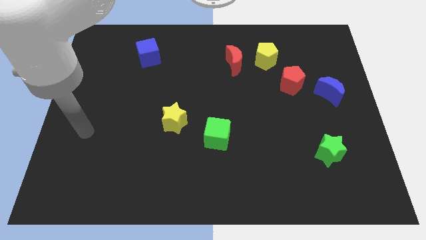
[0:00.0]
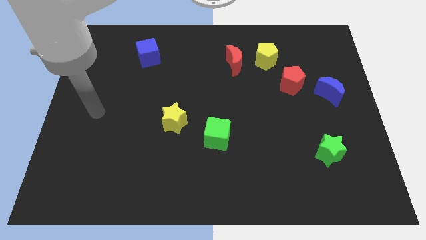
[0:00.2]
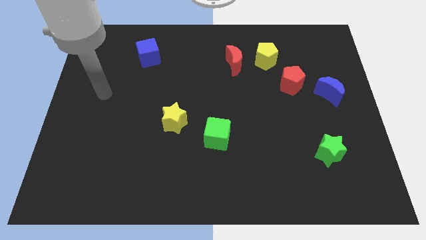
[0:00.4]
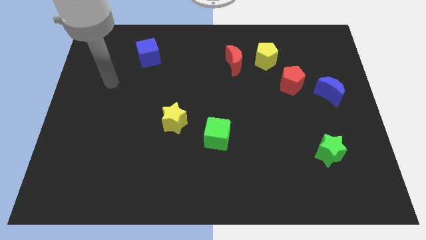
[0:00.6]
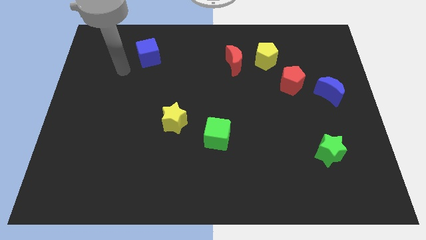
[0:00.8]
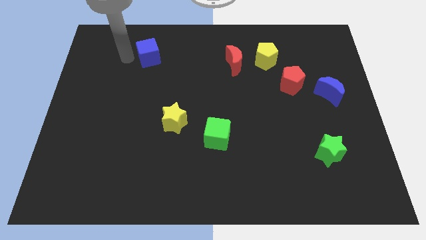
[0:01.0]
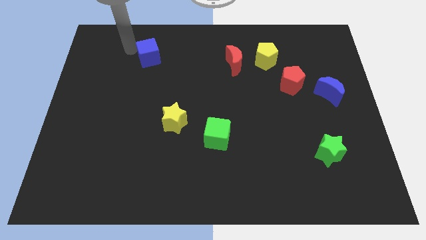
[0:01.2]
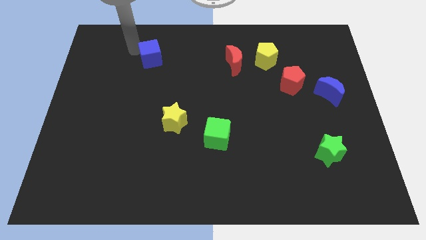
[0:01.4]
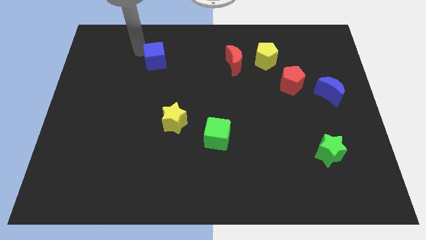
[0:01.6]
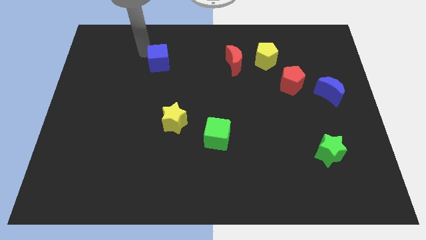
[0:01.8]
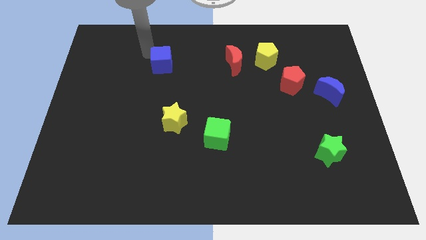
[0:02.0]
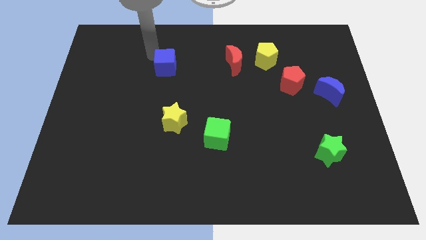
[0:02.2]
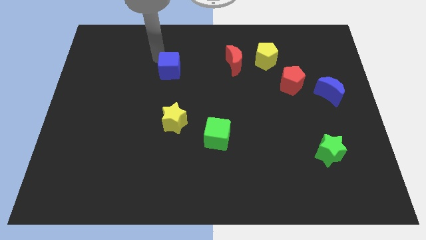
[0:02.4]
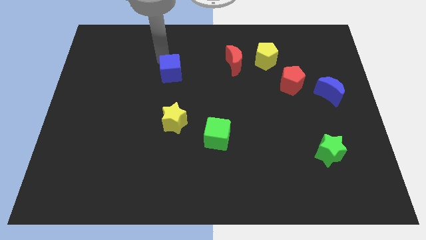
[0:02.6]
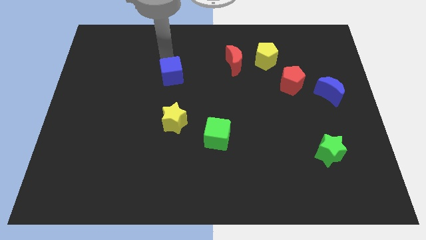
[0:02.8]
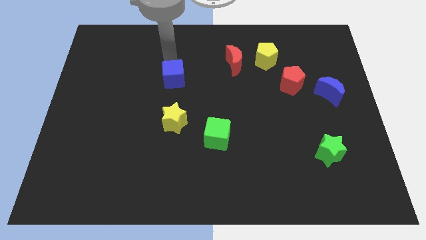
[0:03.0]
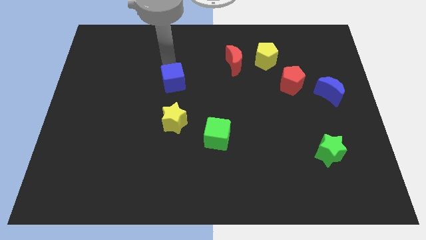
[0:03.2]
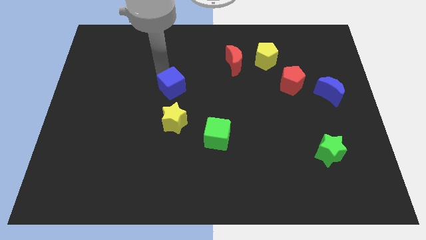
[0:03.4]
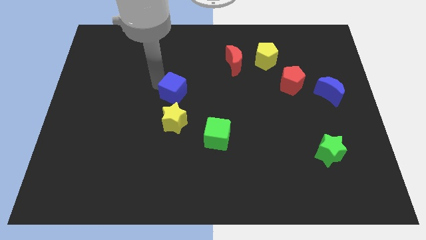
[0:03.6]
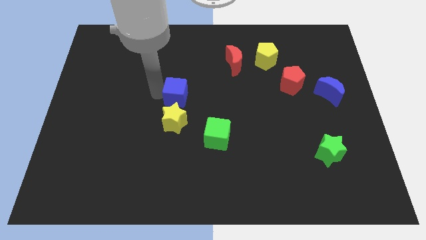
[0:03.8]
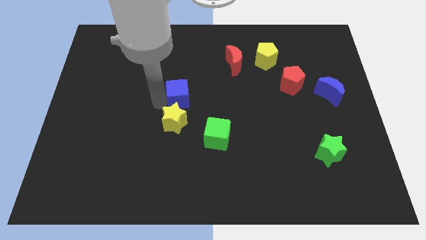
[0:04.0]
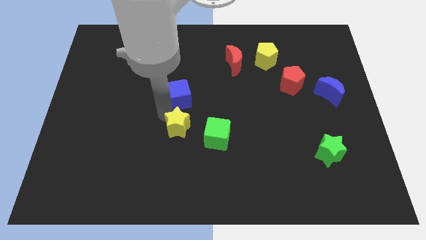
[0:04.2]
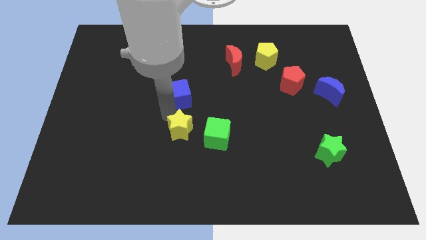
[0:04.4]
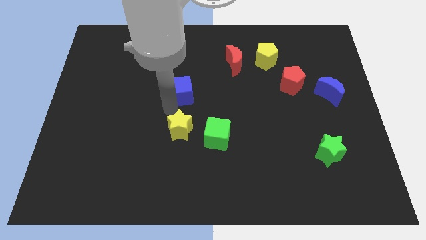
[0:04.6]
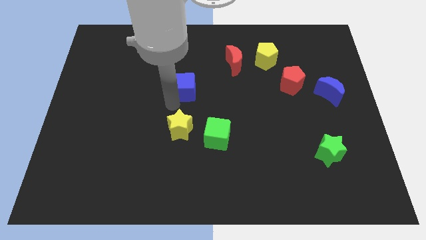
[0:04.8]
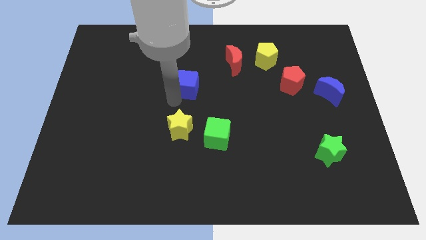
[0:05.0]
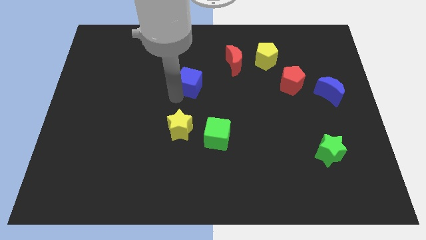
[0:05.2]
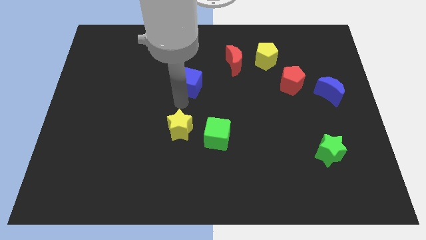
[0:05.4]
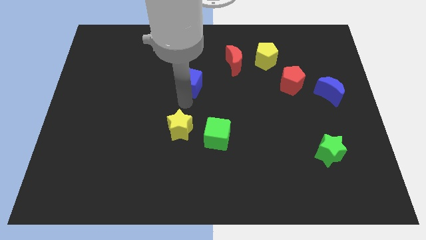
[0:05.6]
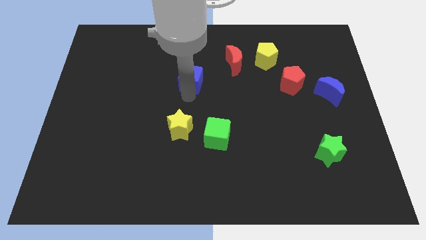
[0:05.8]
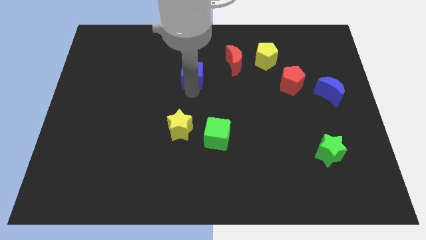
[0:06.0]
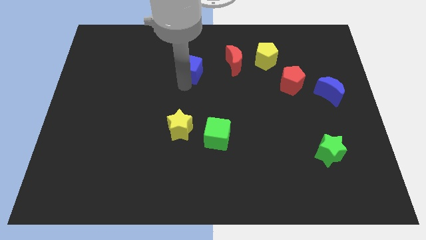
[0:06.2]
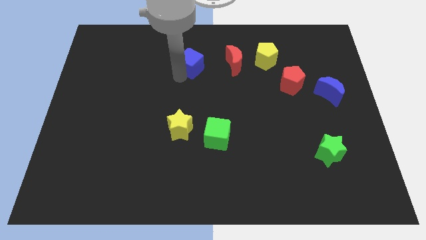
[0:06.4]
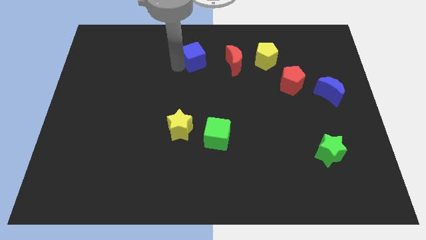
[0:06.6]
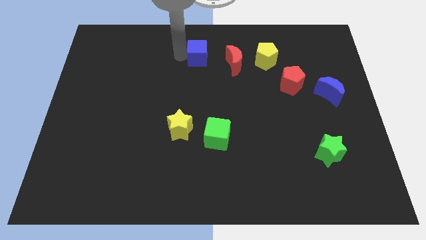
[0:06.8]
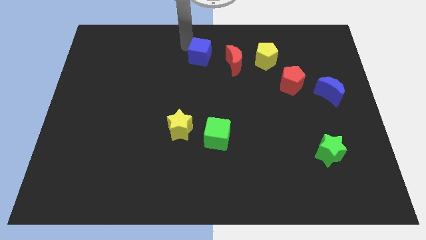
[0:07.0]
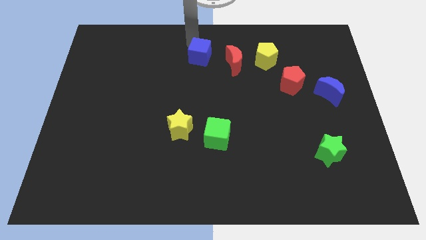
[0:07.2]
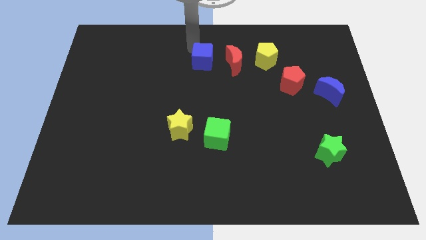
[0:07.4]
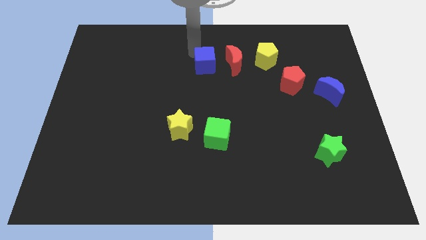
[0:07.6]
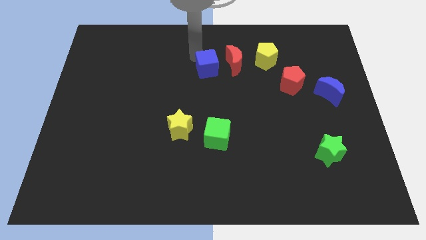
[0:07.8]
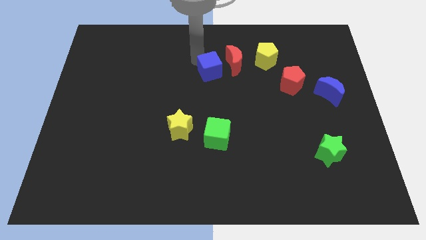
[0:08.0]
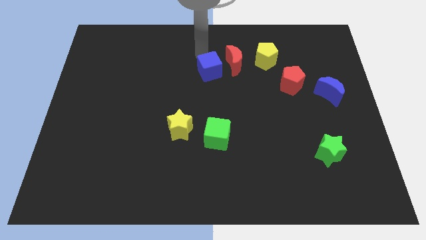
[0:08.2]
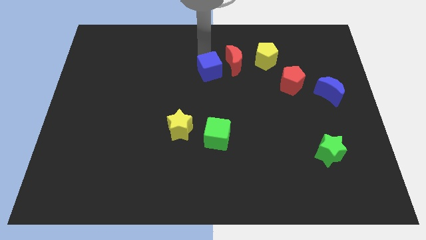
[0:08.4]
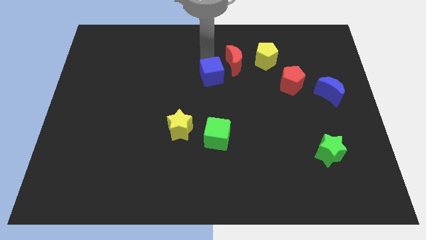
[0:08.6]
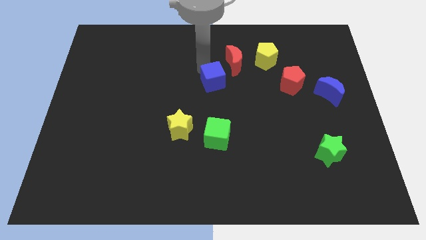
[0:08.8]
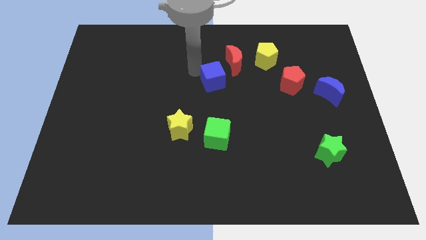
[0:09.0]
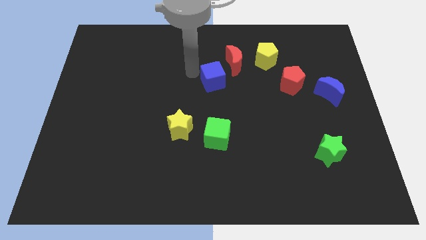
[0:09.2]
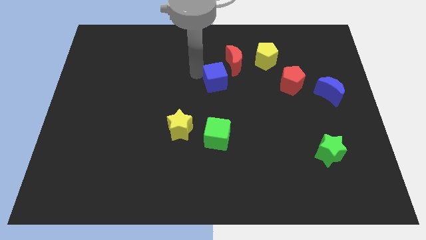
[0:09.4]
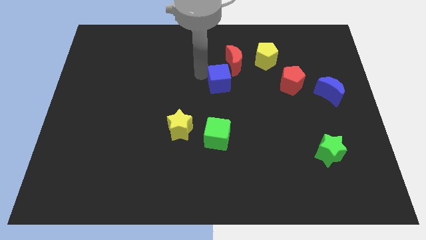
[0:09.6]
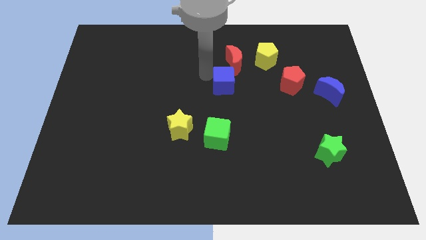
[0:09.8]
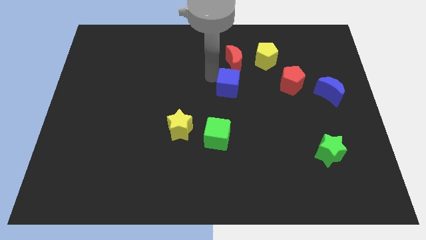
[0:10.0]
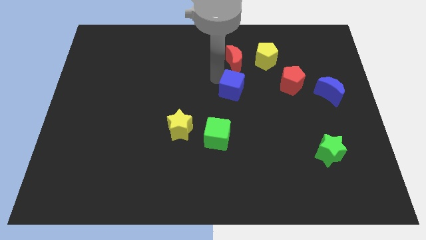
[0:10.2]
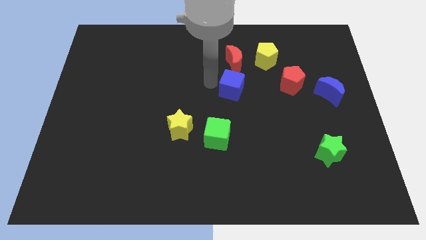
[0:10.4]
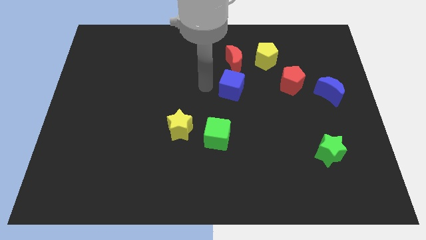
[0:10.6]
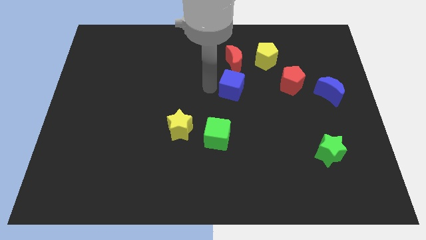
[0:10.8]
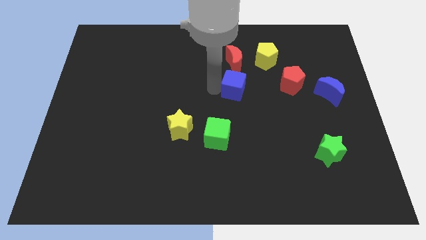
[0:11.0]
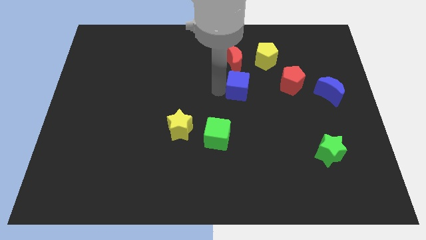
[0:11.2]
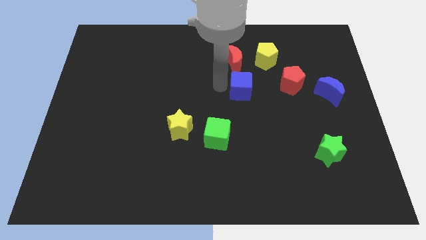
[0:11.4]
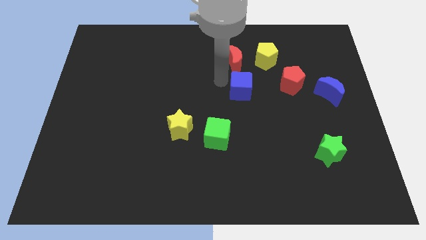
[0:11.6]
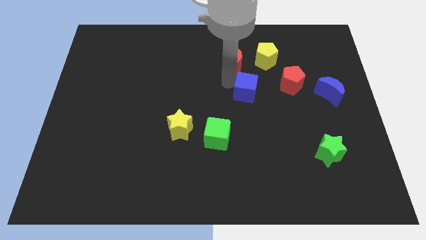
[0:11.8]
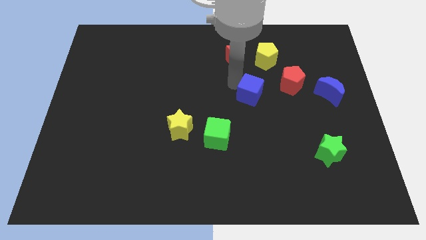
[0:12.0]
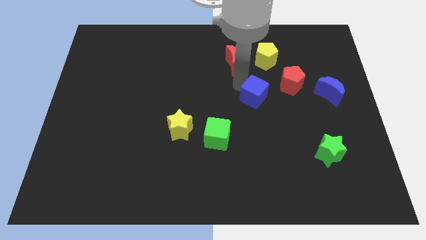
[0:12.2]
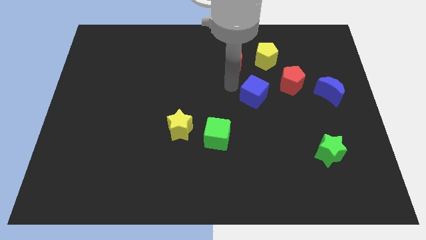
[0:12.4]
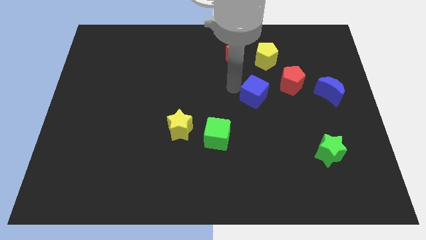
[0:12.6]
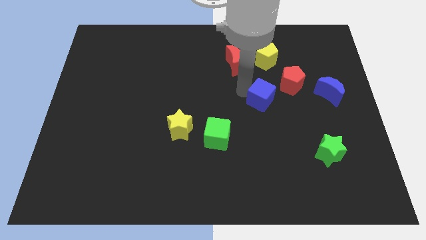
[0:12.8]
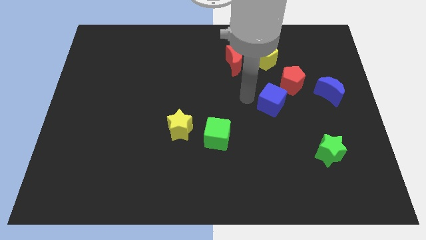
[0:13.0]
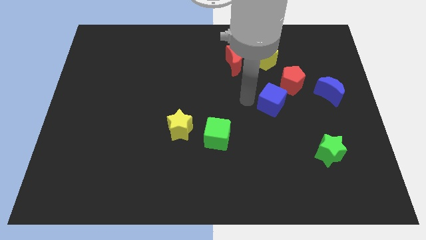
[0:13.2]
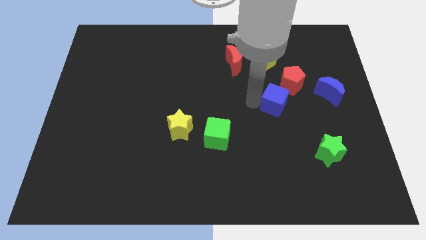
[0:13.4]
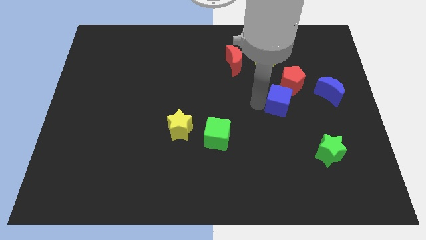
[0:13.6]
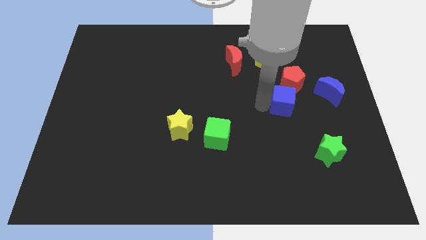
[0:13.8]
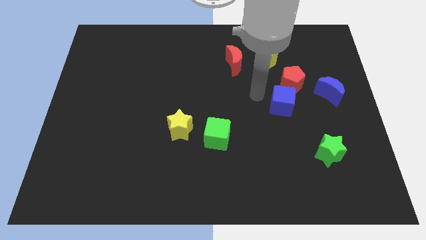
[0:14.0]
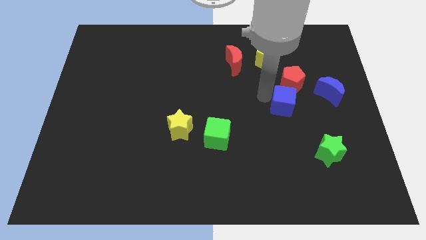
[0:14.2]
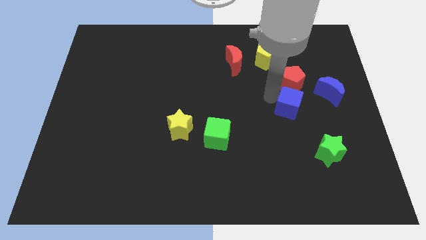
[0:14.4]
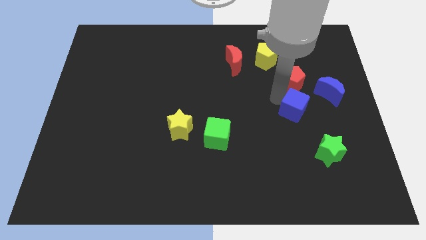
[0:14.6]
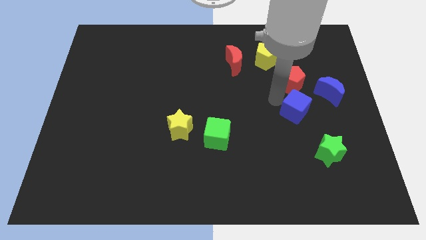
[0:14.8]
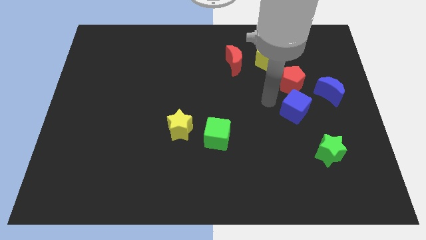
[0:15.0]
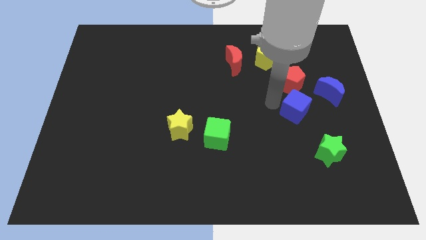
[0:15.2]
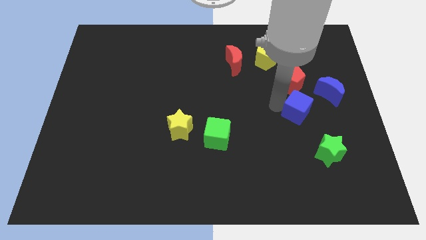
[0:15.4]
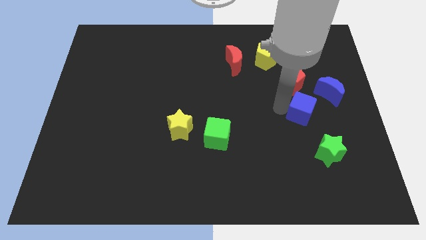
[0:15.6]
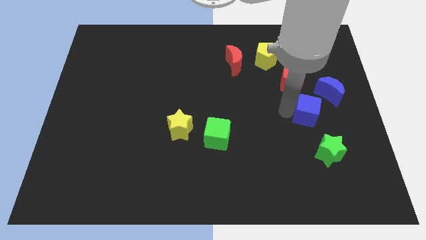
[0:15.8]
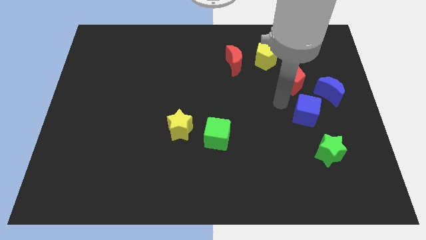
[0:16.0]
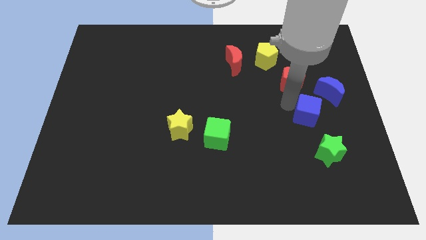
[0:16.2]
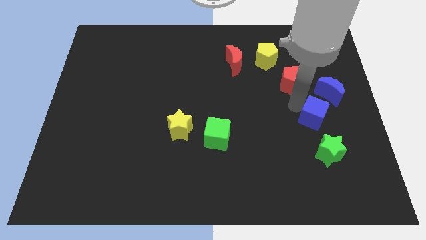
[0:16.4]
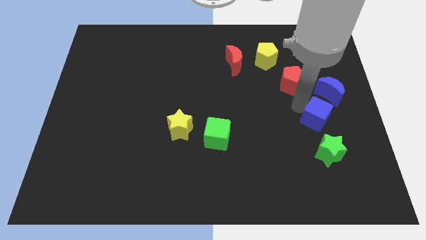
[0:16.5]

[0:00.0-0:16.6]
move the blue cube below the blue moon
